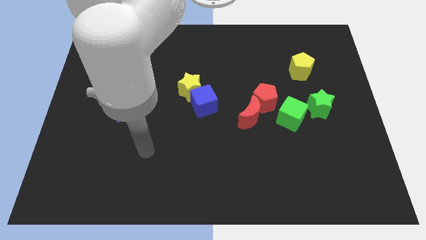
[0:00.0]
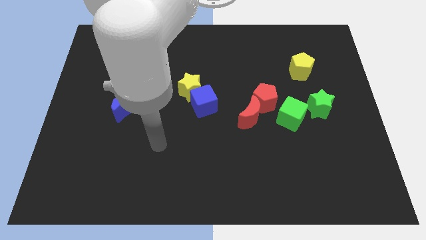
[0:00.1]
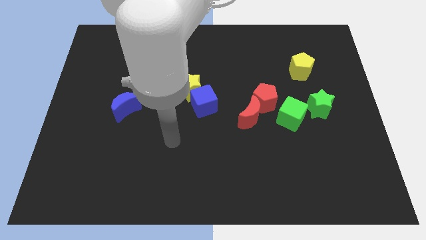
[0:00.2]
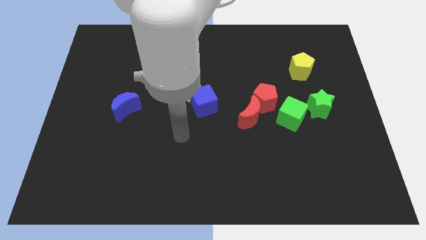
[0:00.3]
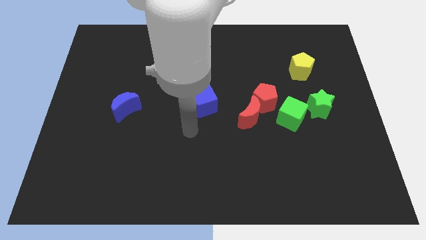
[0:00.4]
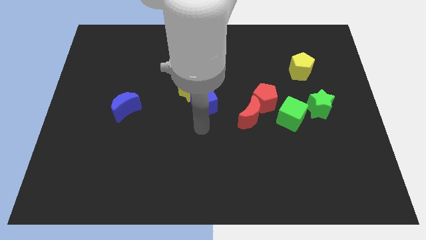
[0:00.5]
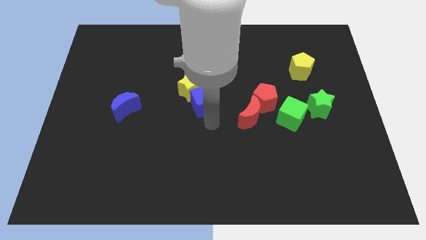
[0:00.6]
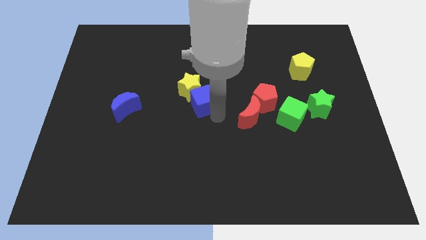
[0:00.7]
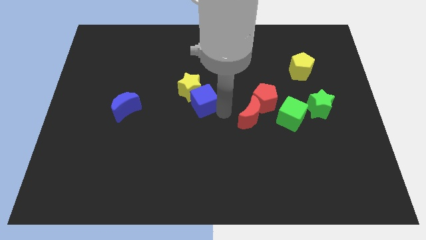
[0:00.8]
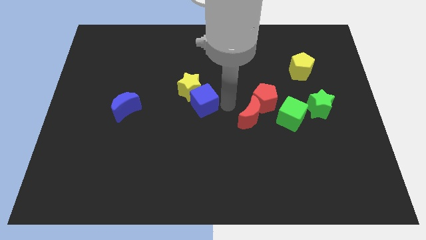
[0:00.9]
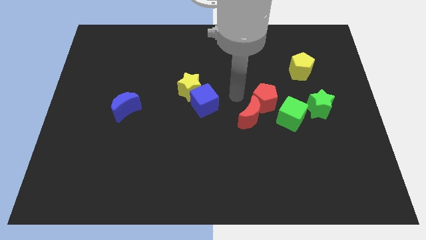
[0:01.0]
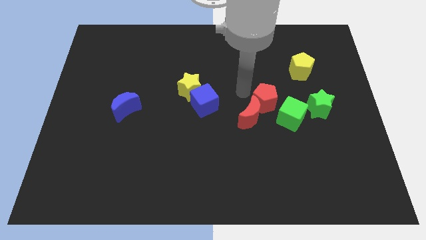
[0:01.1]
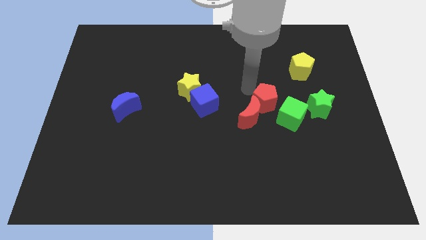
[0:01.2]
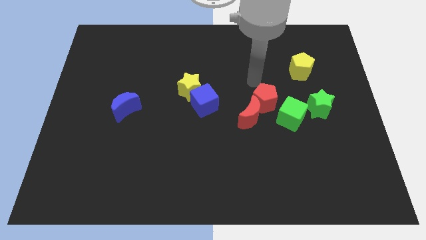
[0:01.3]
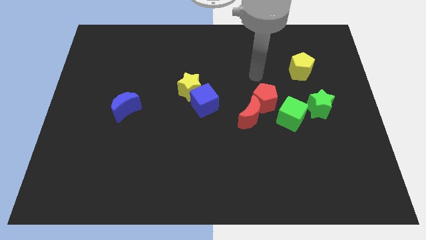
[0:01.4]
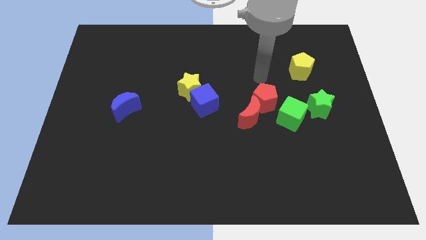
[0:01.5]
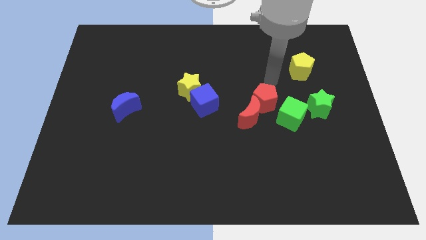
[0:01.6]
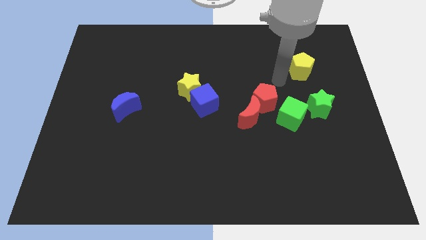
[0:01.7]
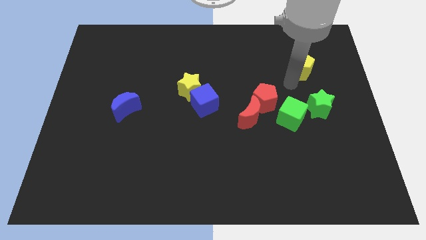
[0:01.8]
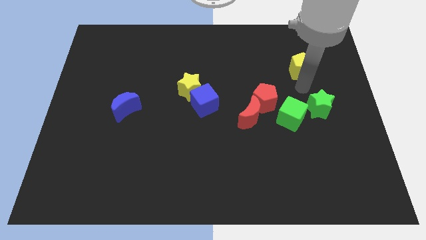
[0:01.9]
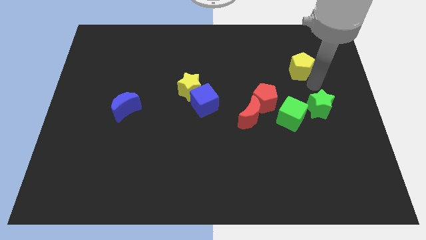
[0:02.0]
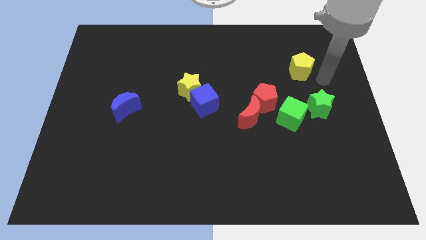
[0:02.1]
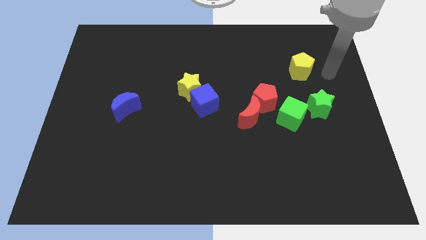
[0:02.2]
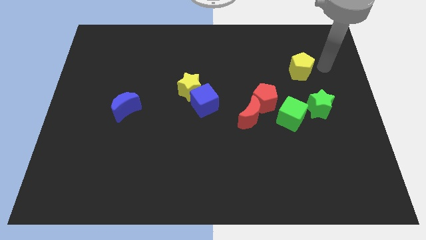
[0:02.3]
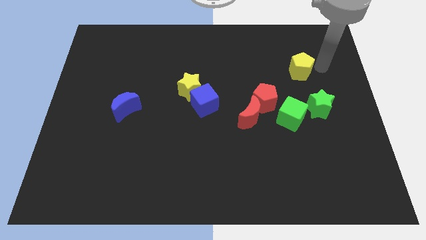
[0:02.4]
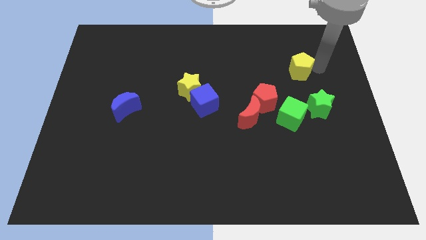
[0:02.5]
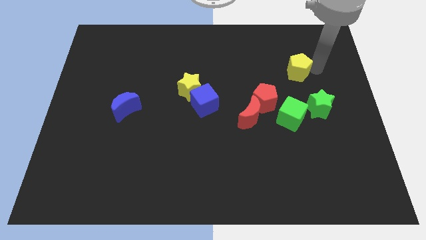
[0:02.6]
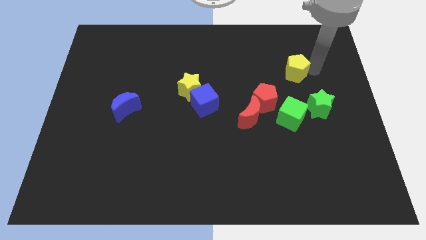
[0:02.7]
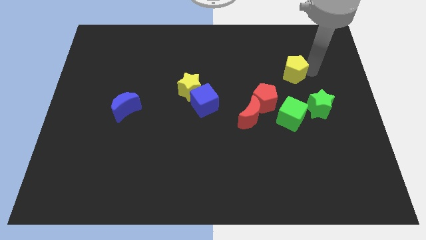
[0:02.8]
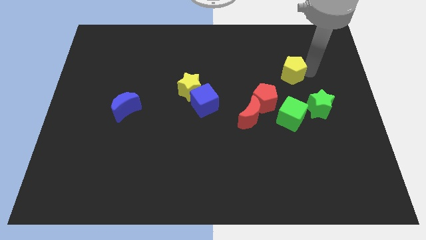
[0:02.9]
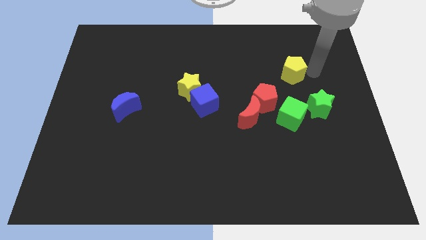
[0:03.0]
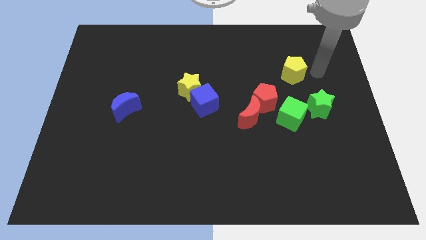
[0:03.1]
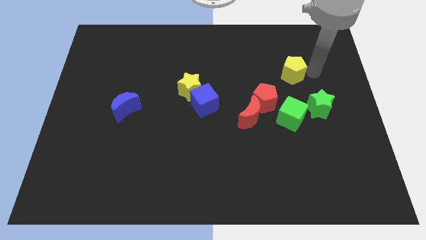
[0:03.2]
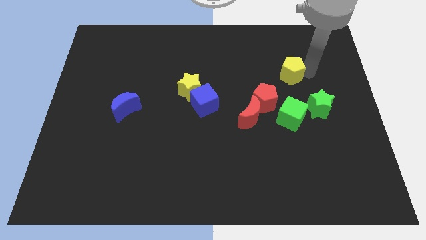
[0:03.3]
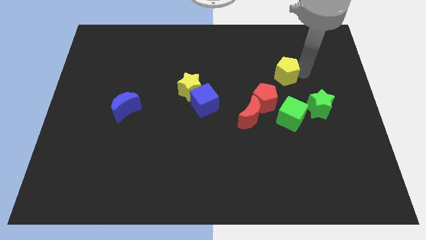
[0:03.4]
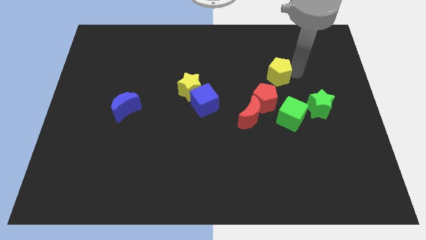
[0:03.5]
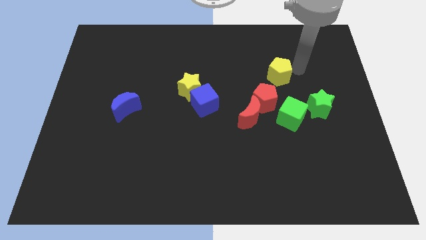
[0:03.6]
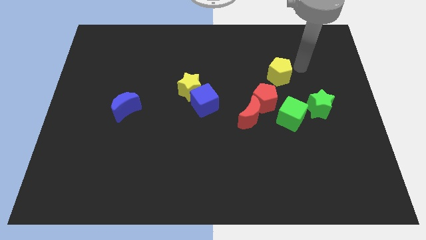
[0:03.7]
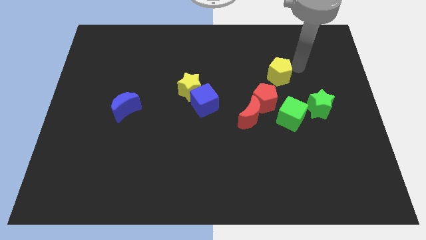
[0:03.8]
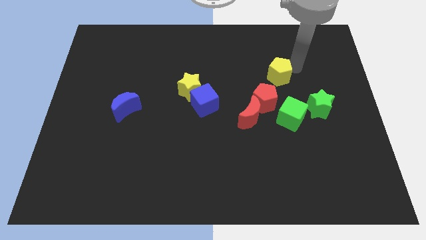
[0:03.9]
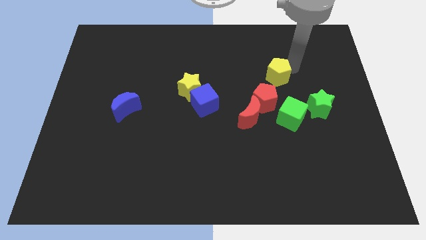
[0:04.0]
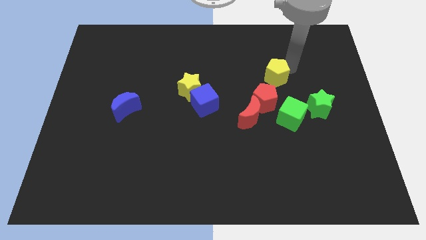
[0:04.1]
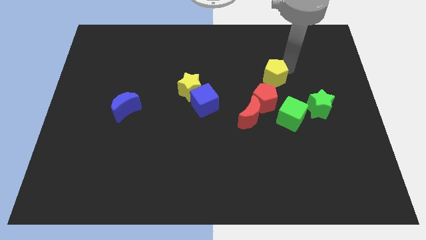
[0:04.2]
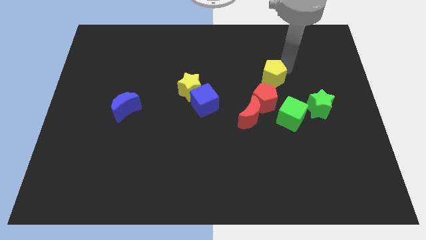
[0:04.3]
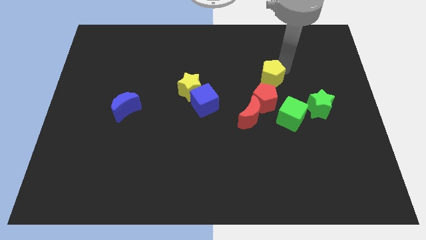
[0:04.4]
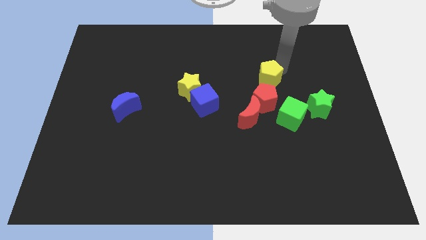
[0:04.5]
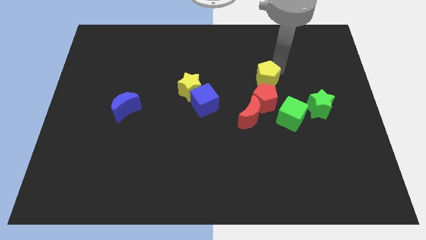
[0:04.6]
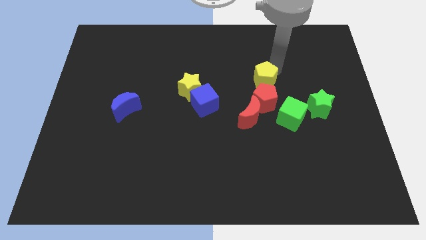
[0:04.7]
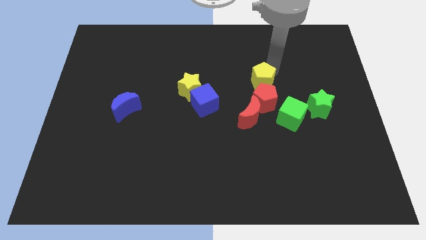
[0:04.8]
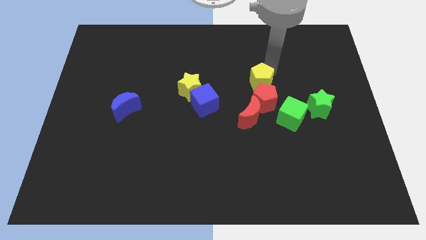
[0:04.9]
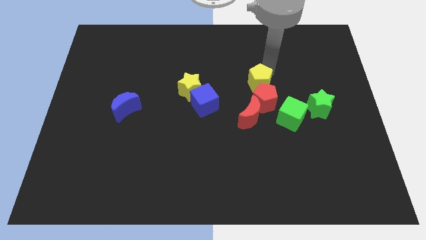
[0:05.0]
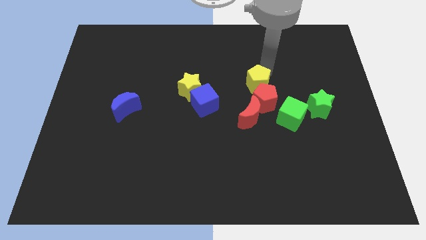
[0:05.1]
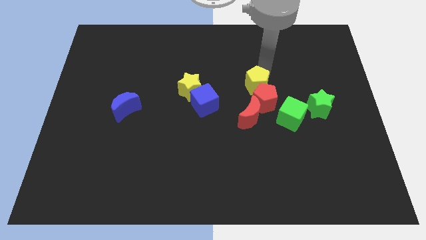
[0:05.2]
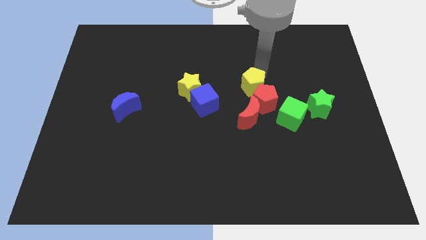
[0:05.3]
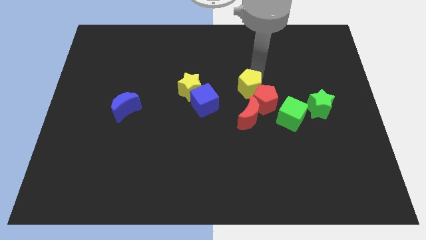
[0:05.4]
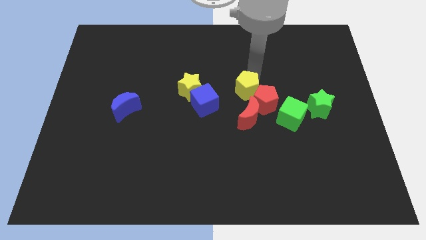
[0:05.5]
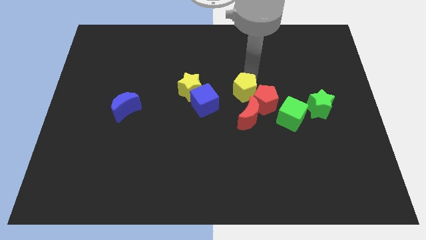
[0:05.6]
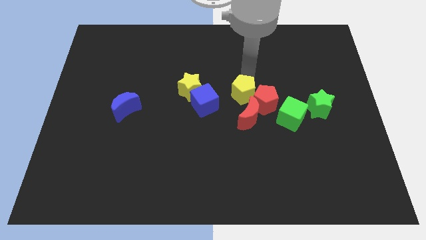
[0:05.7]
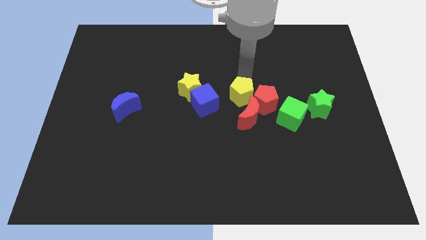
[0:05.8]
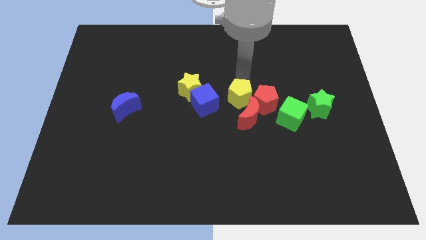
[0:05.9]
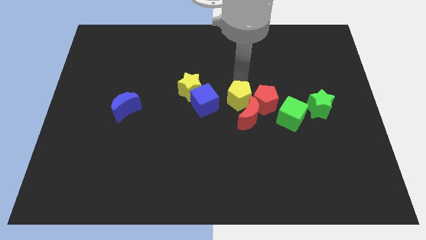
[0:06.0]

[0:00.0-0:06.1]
move the yellow pentagon next to the red moon

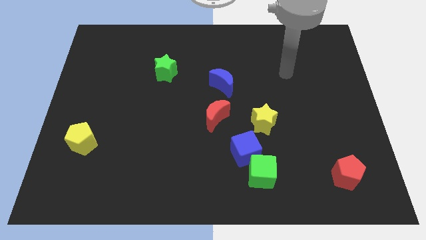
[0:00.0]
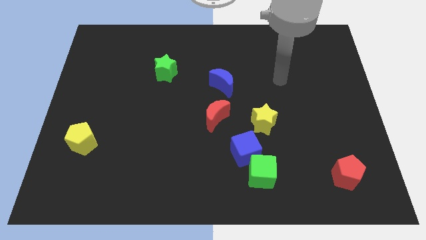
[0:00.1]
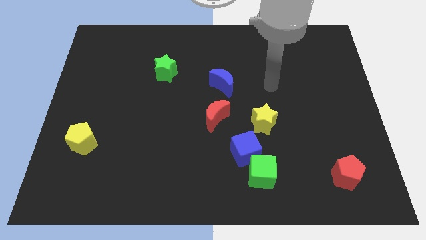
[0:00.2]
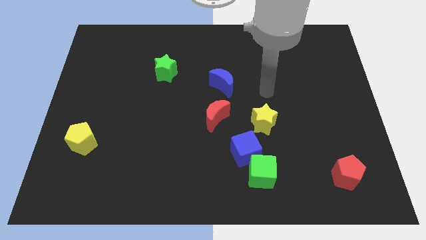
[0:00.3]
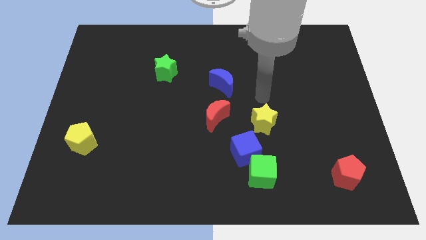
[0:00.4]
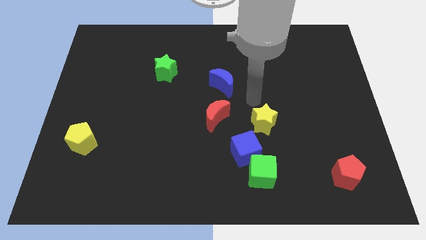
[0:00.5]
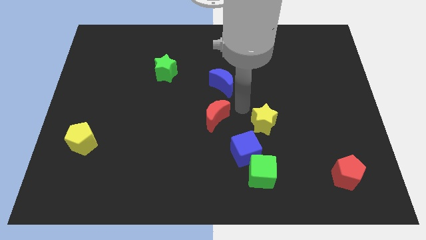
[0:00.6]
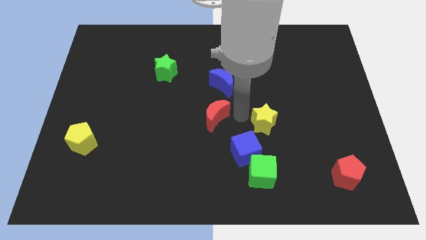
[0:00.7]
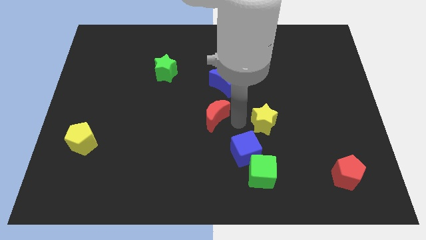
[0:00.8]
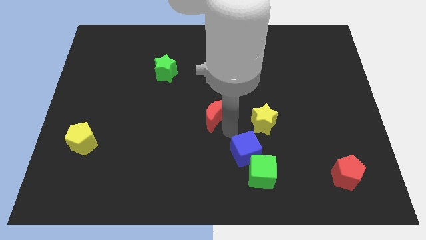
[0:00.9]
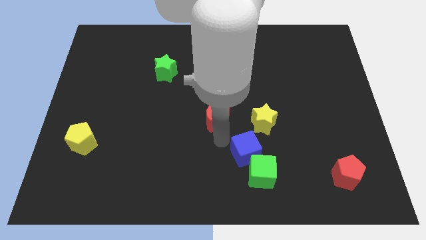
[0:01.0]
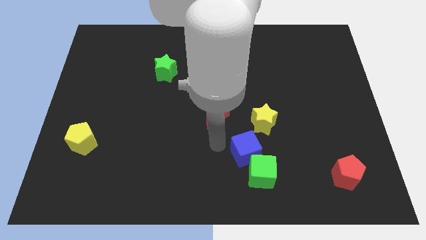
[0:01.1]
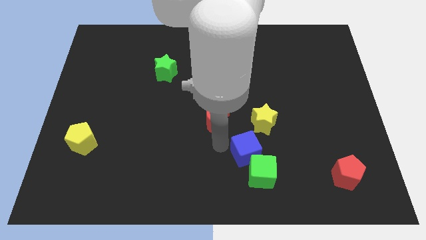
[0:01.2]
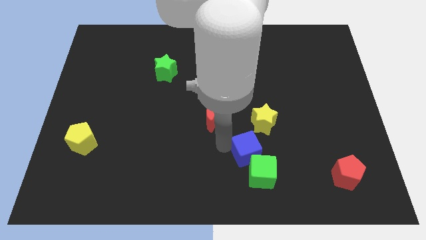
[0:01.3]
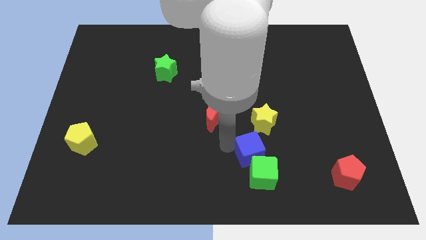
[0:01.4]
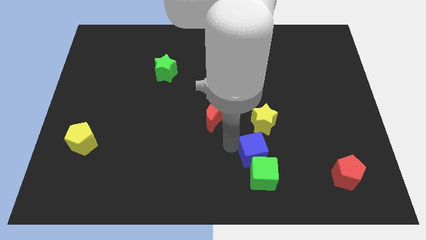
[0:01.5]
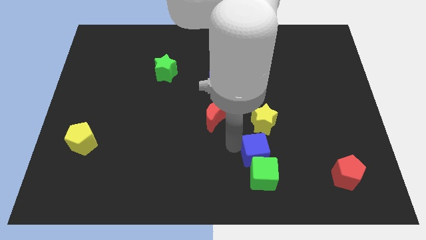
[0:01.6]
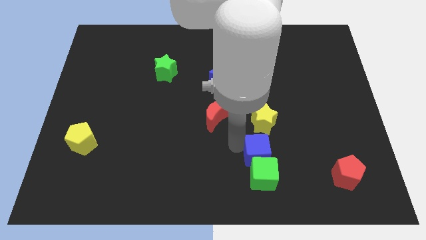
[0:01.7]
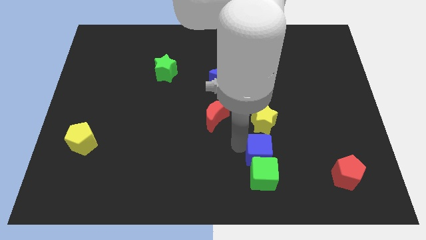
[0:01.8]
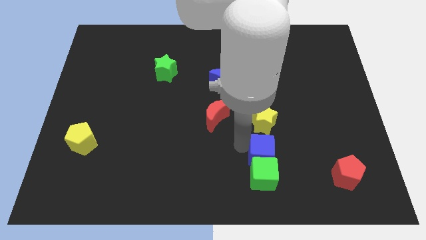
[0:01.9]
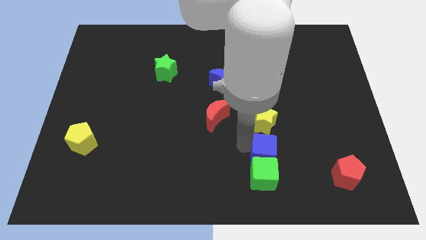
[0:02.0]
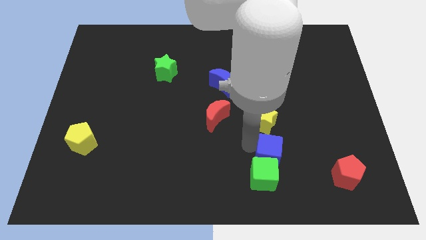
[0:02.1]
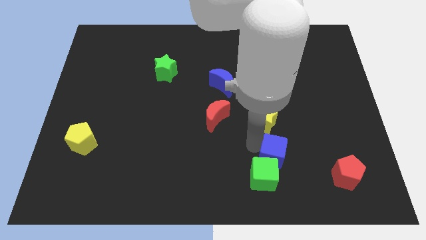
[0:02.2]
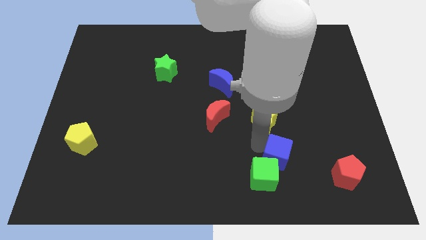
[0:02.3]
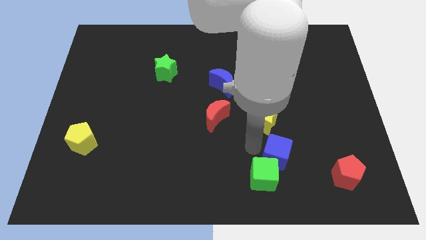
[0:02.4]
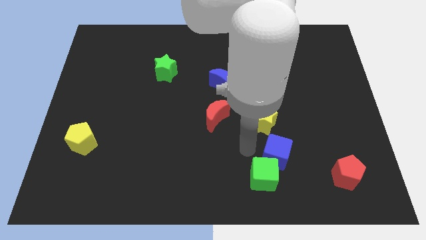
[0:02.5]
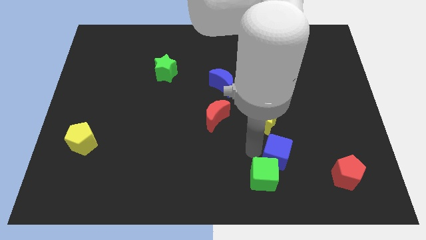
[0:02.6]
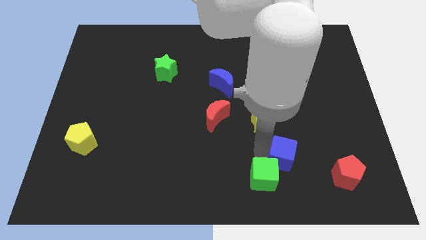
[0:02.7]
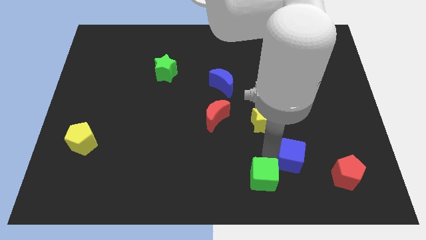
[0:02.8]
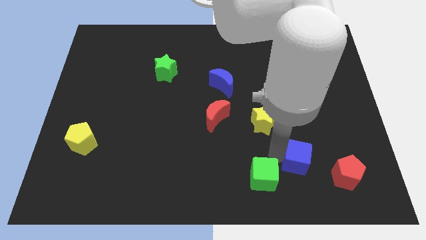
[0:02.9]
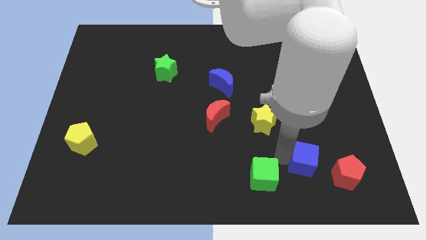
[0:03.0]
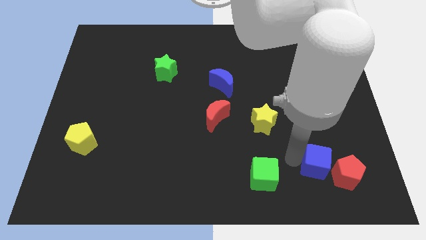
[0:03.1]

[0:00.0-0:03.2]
put the blue cube towards the red pentagon
